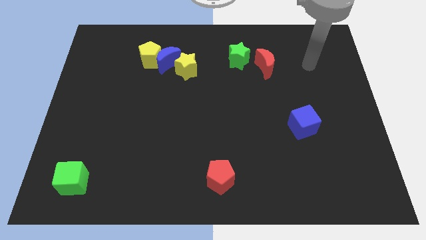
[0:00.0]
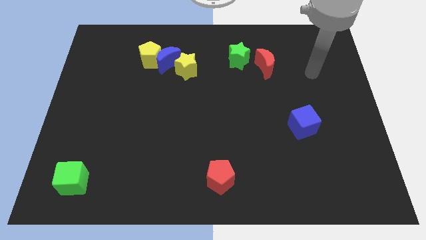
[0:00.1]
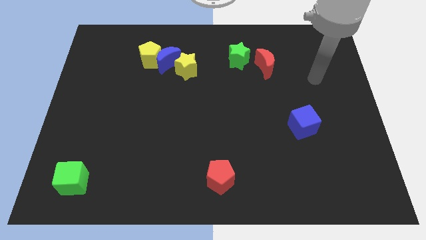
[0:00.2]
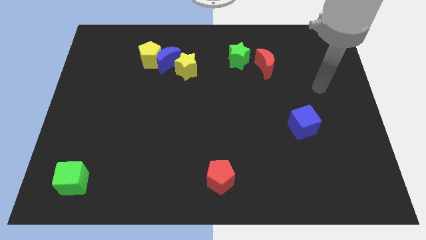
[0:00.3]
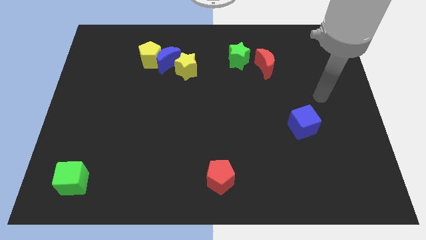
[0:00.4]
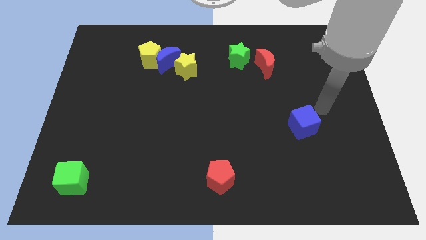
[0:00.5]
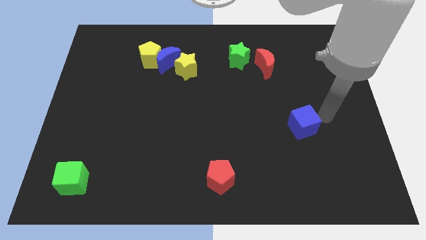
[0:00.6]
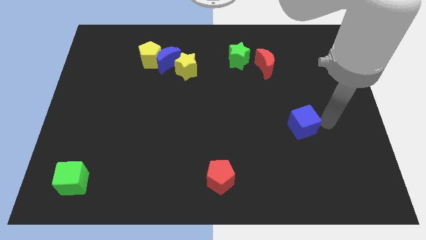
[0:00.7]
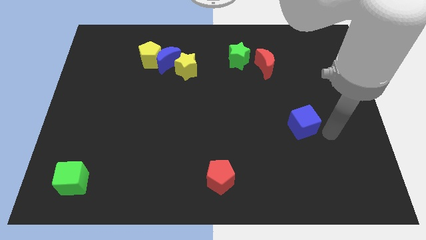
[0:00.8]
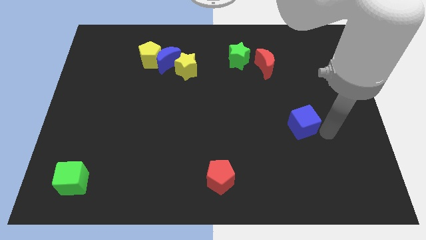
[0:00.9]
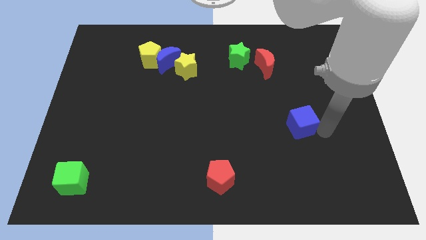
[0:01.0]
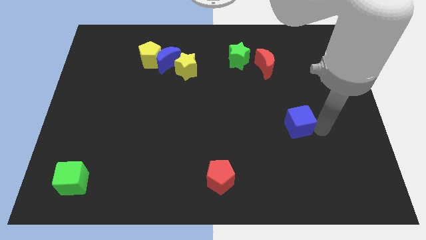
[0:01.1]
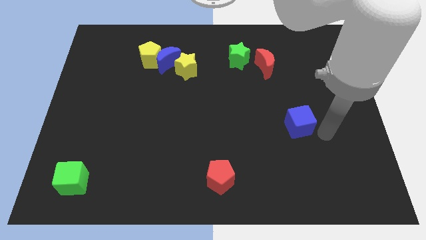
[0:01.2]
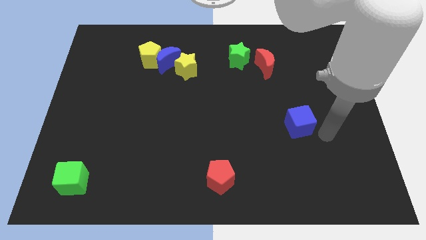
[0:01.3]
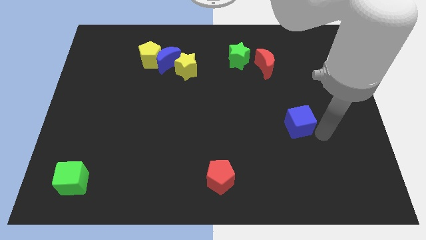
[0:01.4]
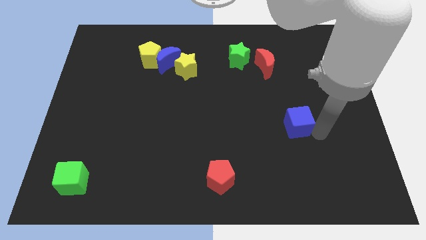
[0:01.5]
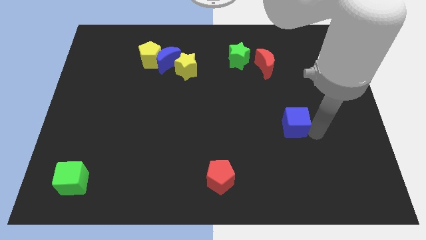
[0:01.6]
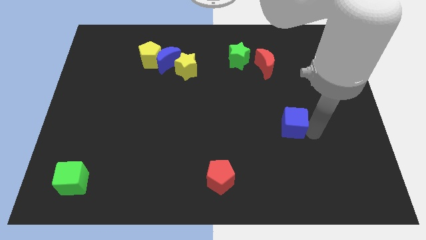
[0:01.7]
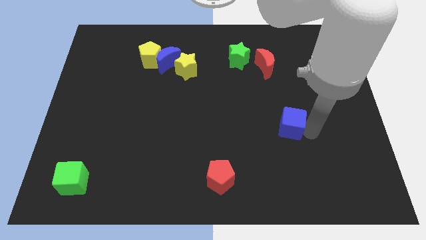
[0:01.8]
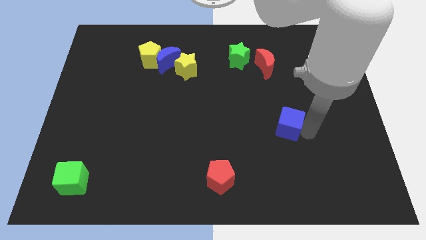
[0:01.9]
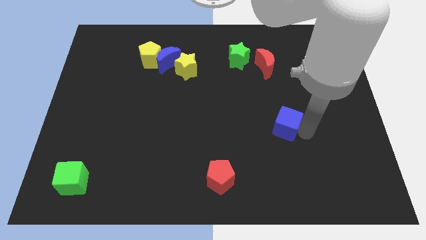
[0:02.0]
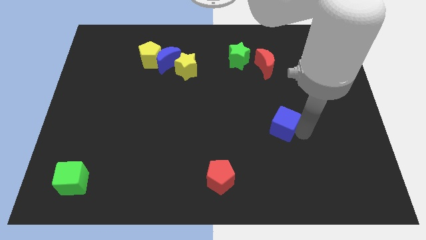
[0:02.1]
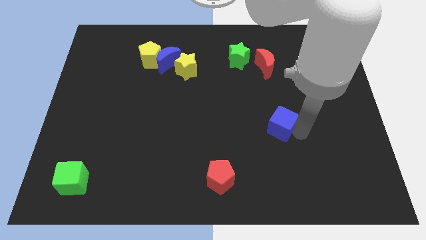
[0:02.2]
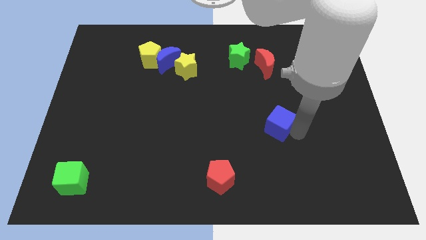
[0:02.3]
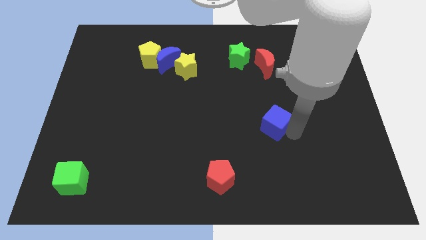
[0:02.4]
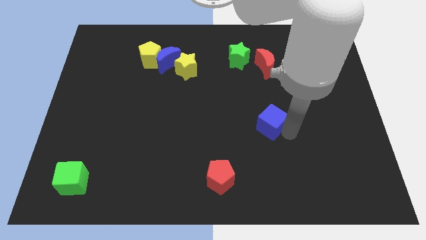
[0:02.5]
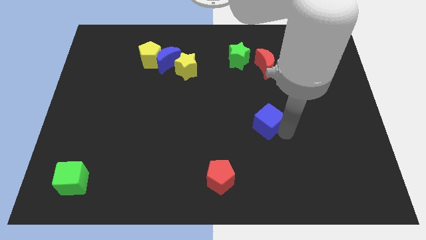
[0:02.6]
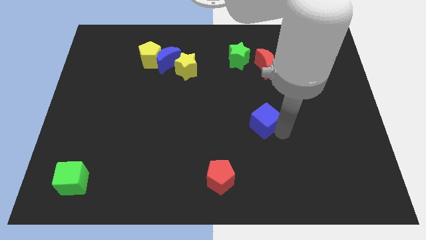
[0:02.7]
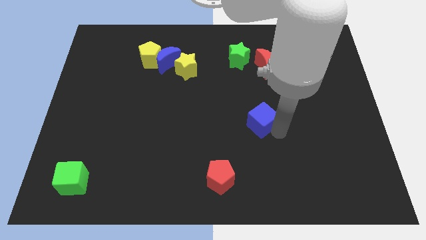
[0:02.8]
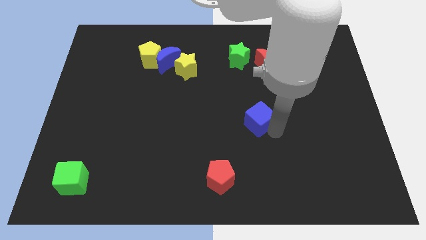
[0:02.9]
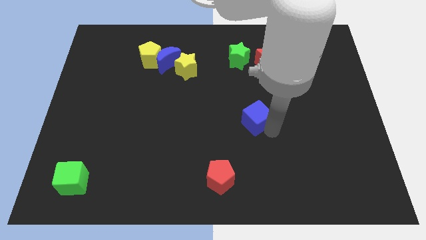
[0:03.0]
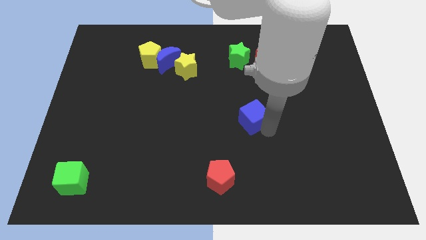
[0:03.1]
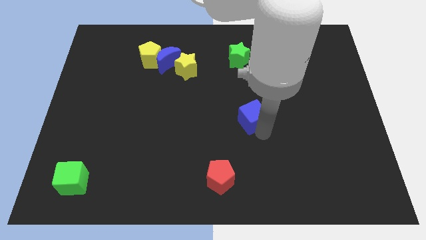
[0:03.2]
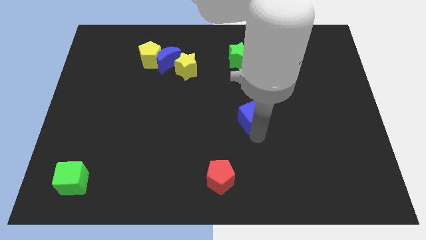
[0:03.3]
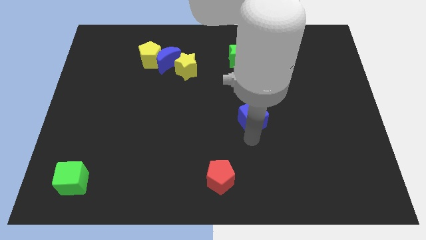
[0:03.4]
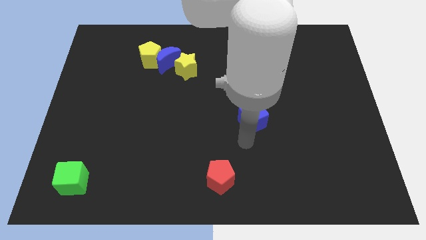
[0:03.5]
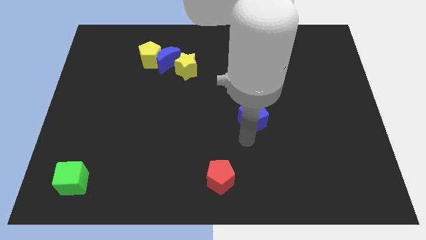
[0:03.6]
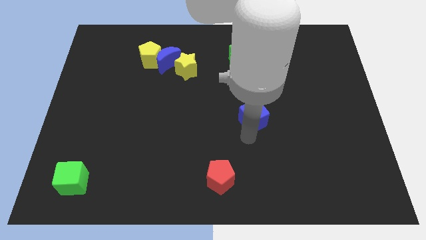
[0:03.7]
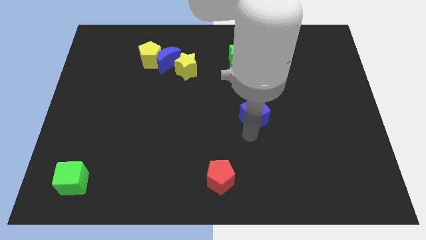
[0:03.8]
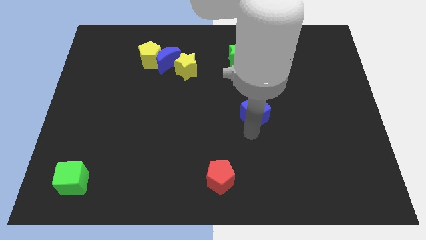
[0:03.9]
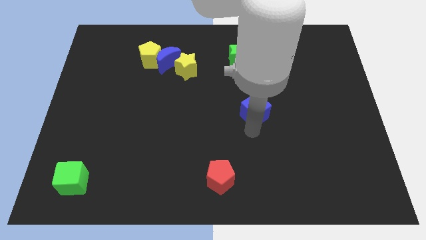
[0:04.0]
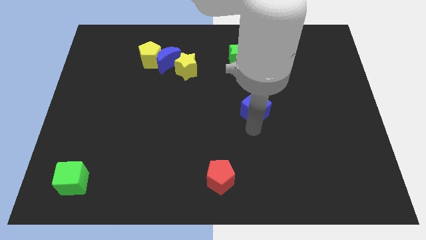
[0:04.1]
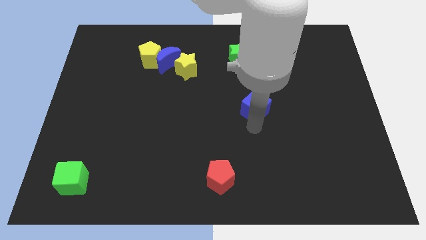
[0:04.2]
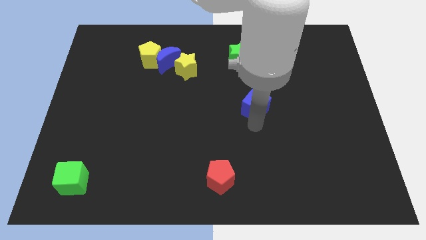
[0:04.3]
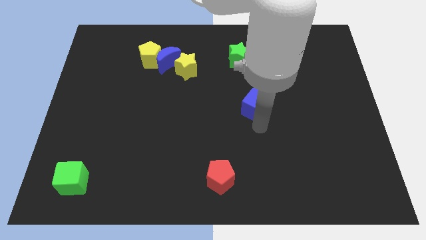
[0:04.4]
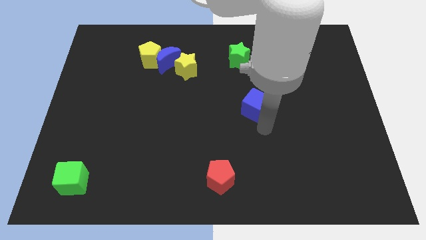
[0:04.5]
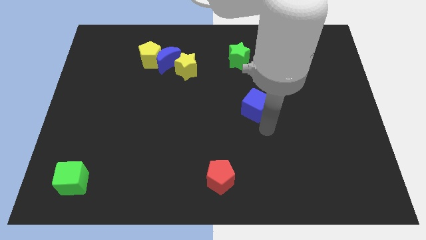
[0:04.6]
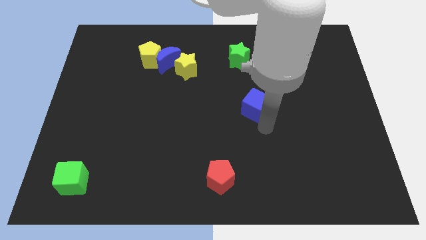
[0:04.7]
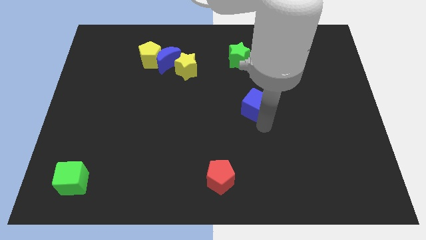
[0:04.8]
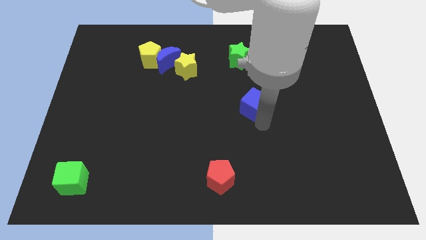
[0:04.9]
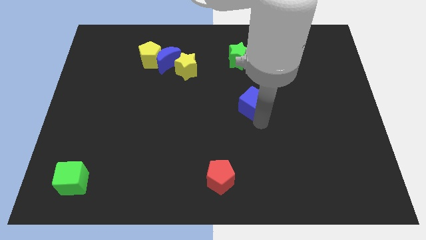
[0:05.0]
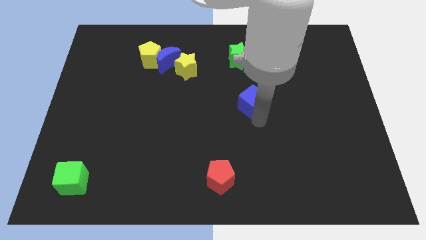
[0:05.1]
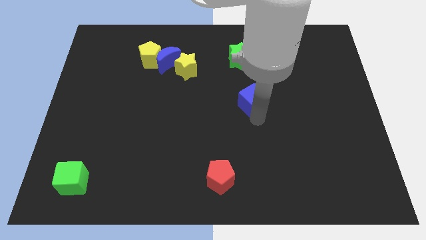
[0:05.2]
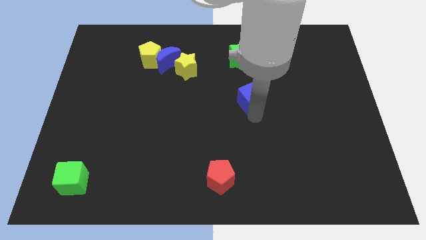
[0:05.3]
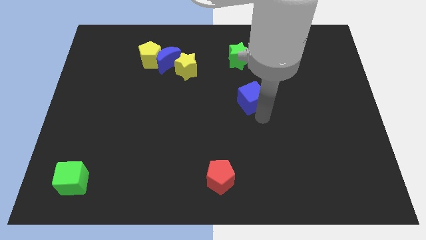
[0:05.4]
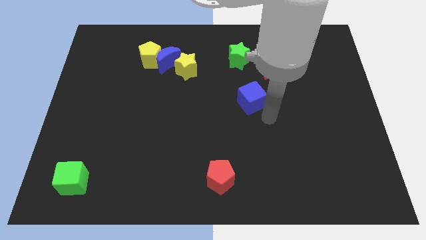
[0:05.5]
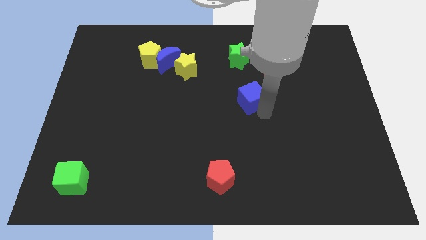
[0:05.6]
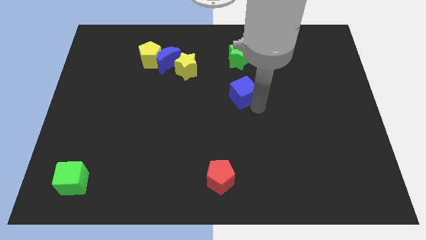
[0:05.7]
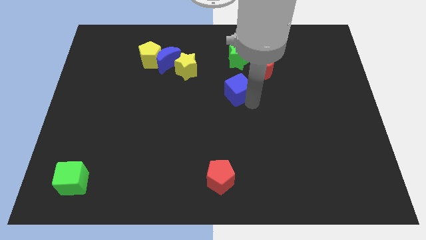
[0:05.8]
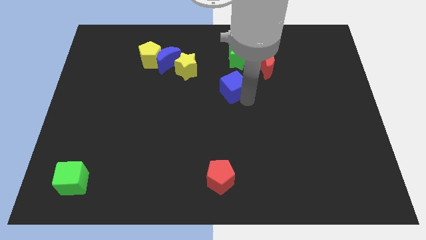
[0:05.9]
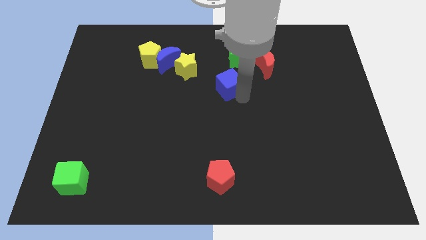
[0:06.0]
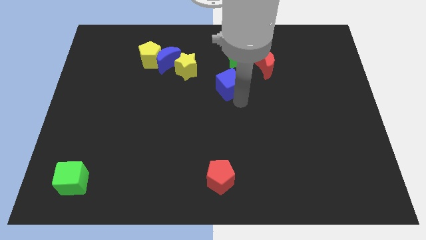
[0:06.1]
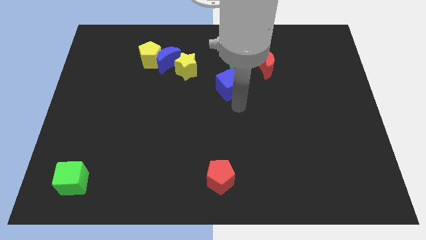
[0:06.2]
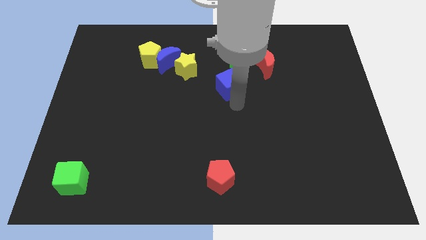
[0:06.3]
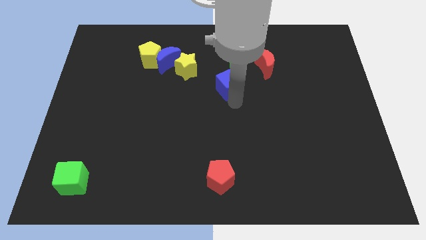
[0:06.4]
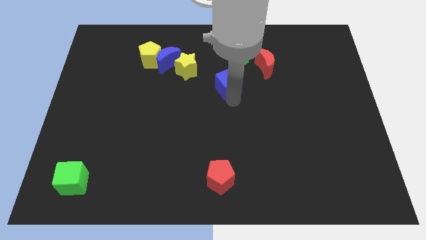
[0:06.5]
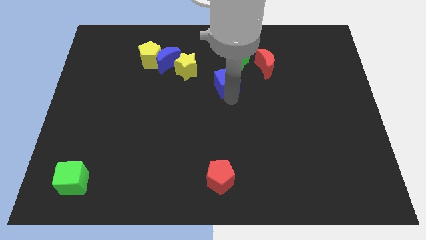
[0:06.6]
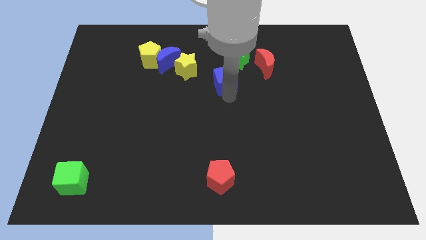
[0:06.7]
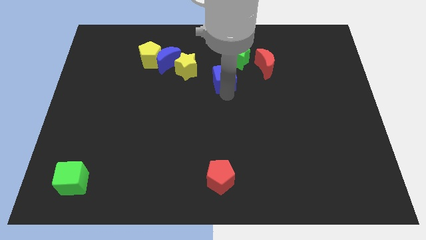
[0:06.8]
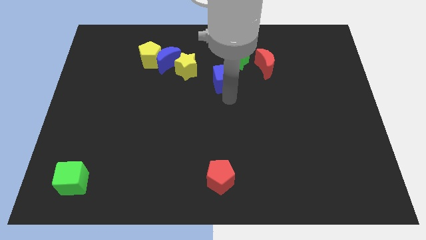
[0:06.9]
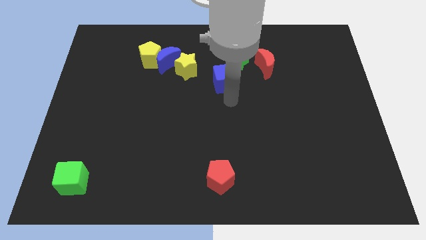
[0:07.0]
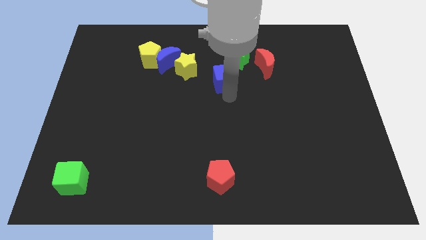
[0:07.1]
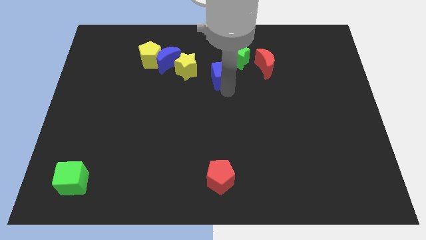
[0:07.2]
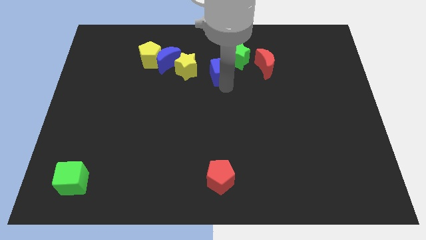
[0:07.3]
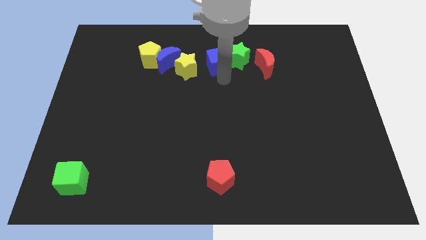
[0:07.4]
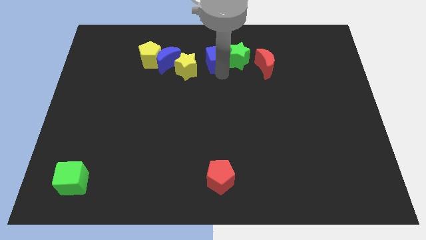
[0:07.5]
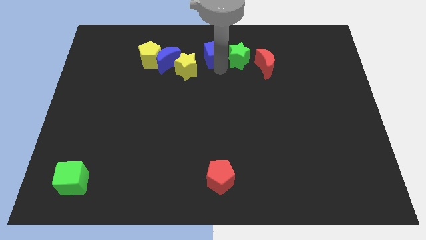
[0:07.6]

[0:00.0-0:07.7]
slide the blue cube to the top side
